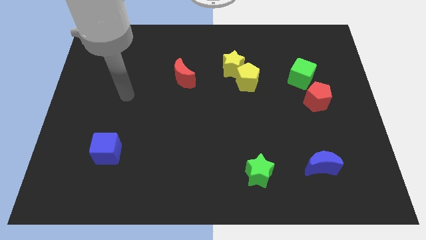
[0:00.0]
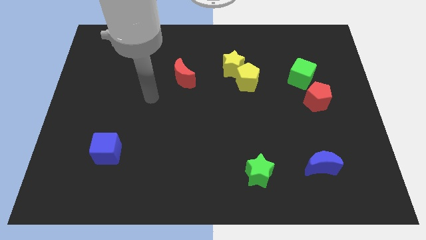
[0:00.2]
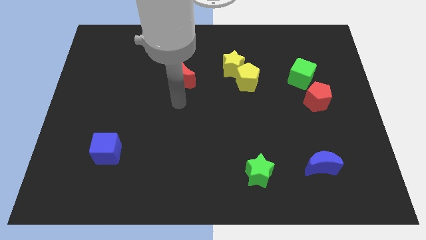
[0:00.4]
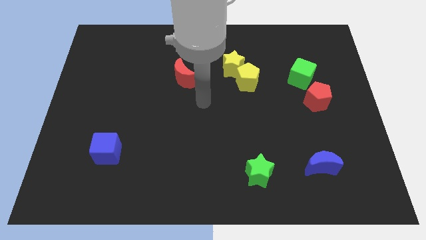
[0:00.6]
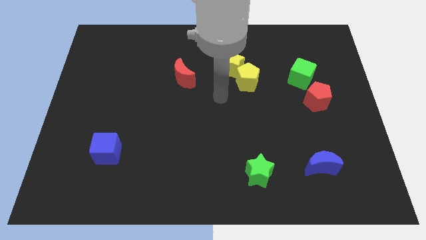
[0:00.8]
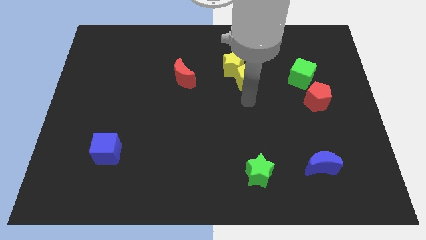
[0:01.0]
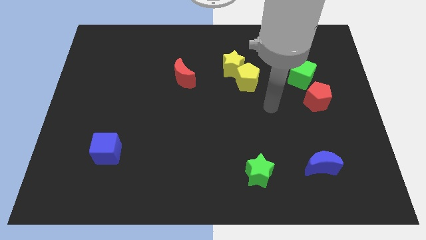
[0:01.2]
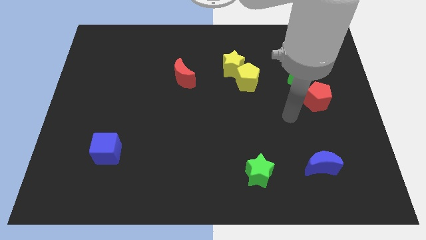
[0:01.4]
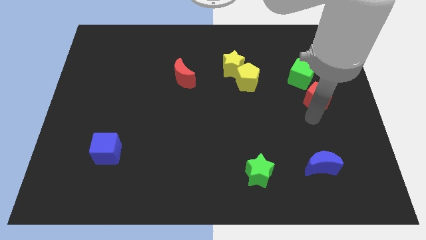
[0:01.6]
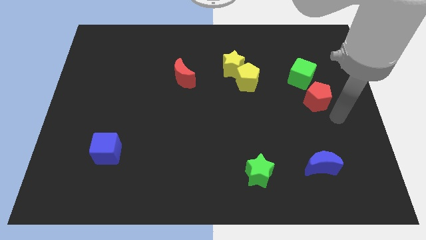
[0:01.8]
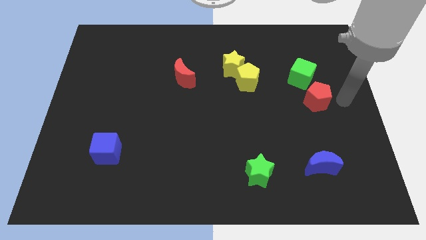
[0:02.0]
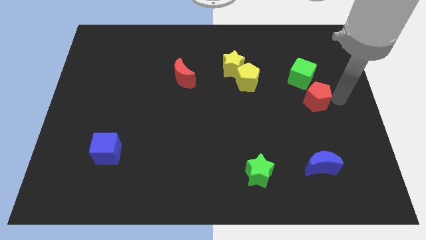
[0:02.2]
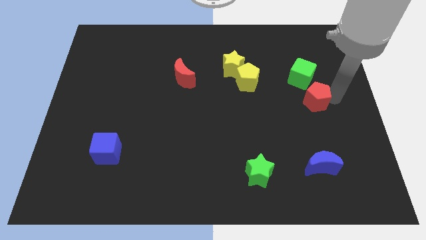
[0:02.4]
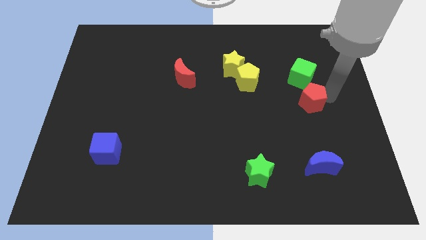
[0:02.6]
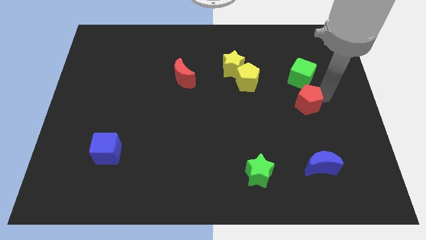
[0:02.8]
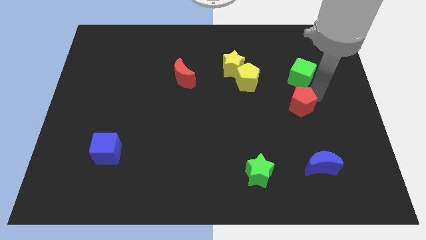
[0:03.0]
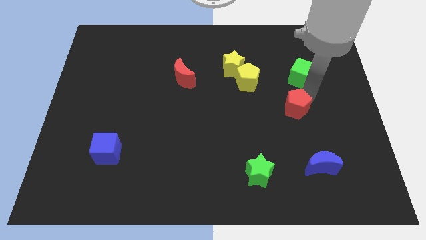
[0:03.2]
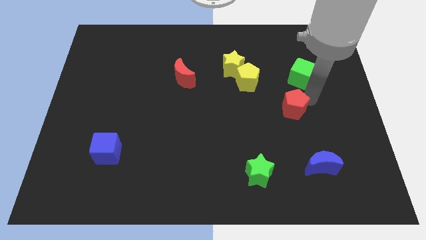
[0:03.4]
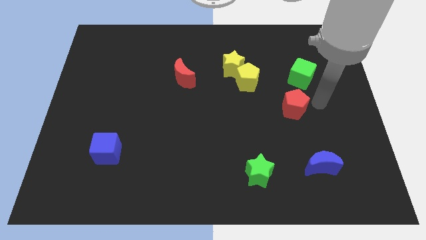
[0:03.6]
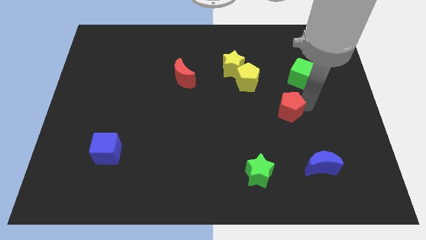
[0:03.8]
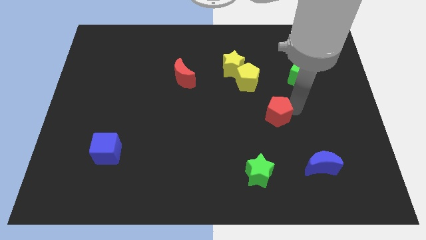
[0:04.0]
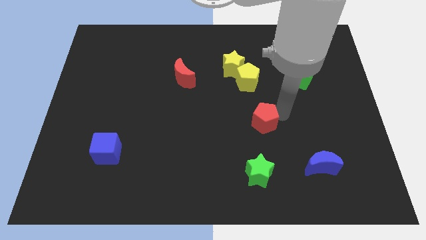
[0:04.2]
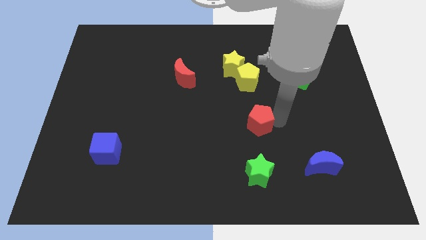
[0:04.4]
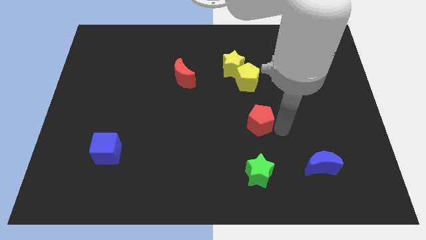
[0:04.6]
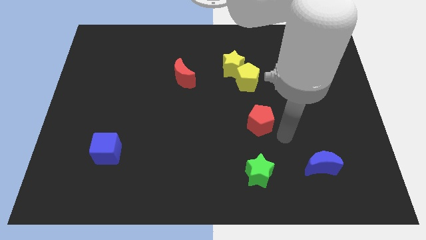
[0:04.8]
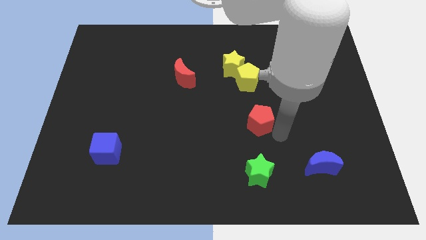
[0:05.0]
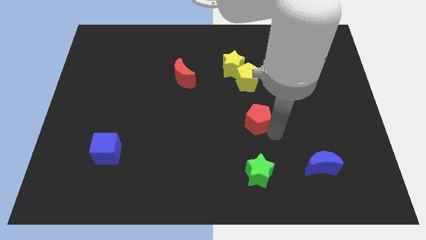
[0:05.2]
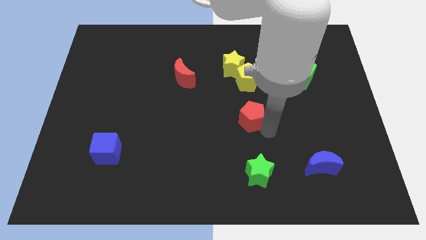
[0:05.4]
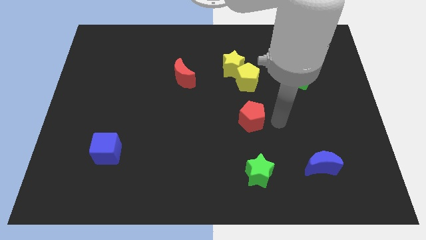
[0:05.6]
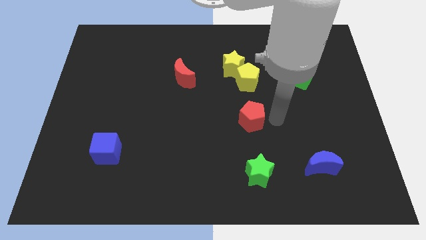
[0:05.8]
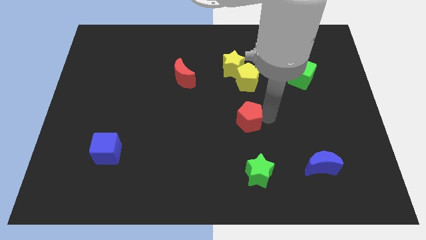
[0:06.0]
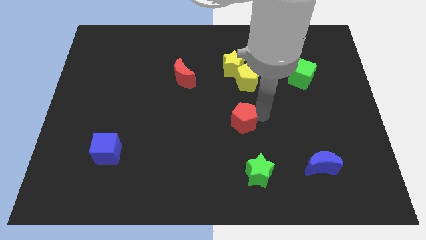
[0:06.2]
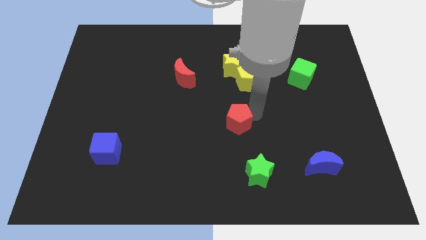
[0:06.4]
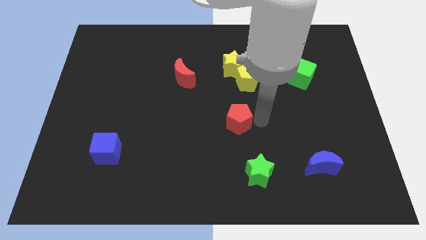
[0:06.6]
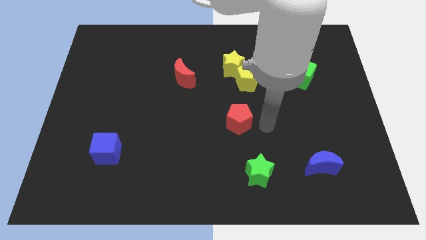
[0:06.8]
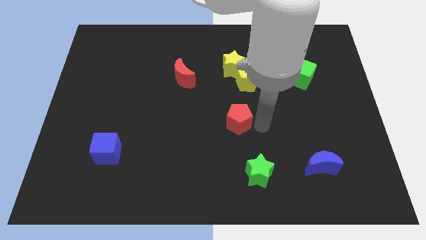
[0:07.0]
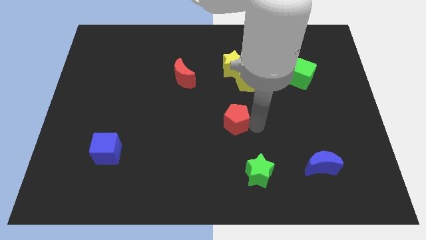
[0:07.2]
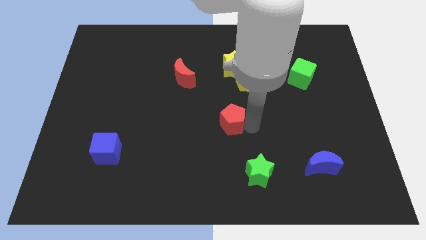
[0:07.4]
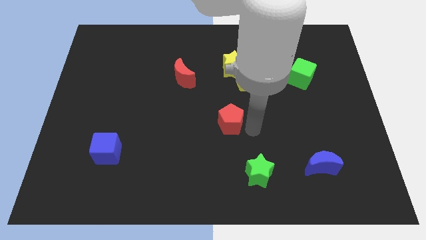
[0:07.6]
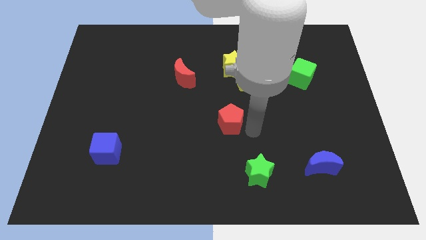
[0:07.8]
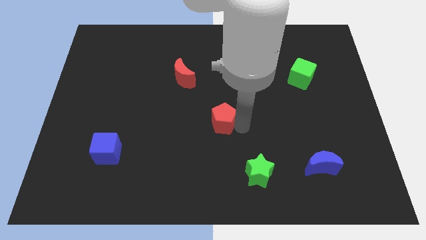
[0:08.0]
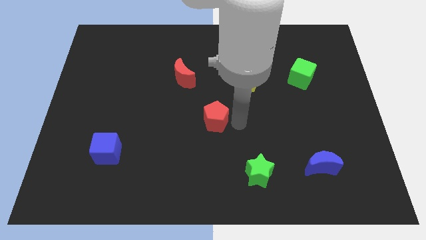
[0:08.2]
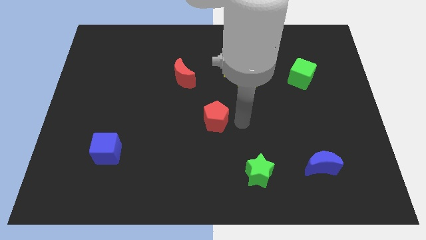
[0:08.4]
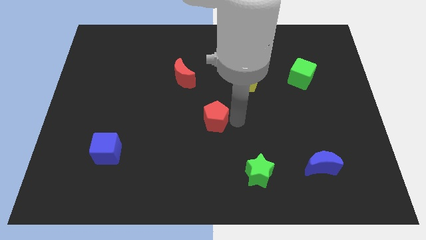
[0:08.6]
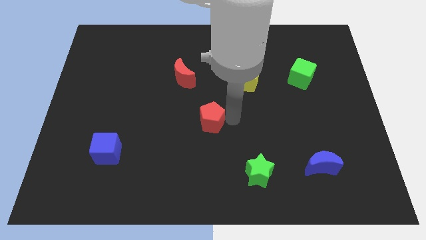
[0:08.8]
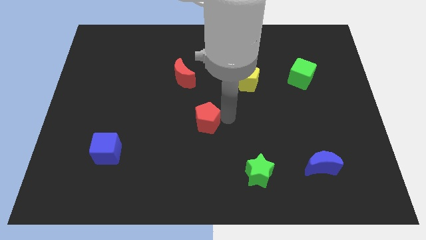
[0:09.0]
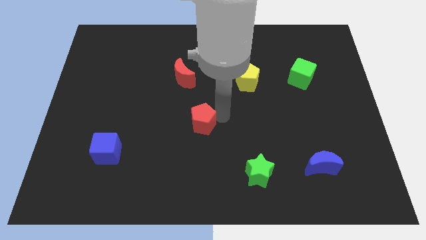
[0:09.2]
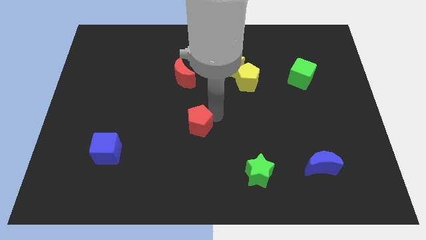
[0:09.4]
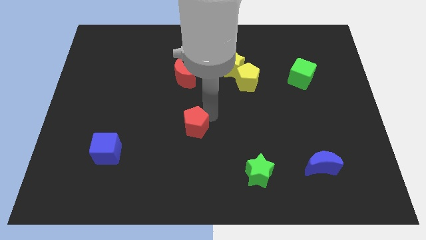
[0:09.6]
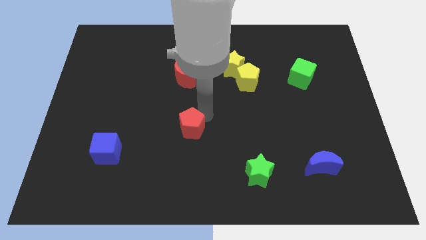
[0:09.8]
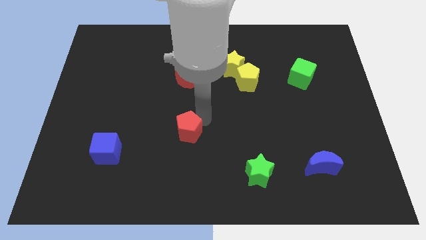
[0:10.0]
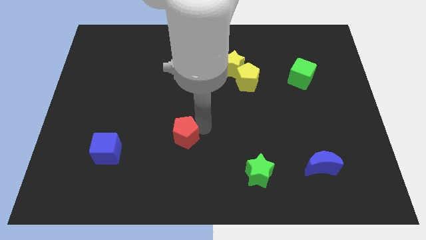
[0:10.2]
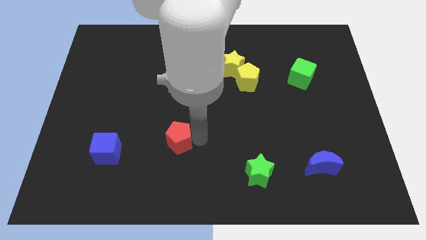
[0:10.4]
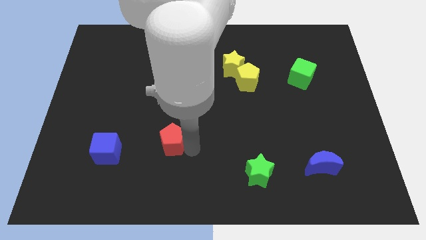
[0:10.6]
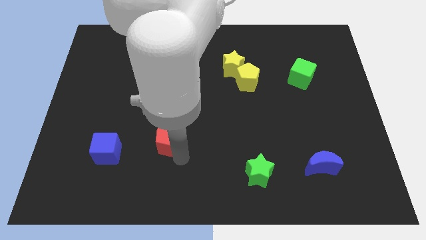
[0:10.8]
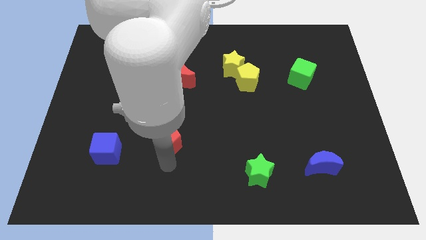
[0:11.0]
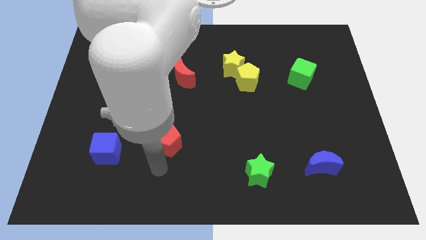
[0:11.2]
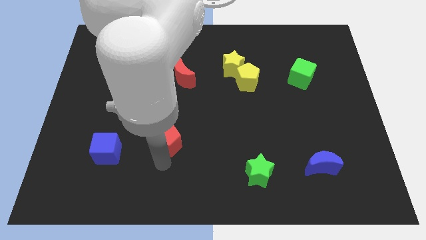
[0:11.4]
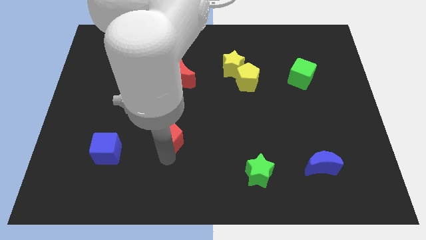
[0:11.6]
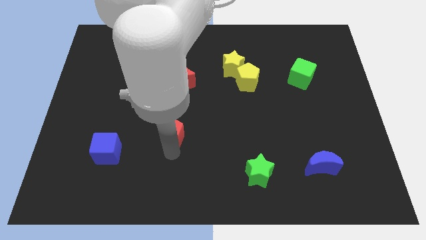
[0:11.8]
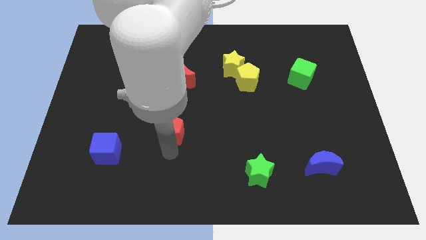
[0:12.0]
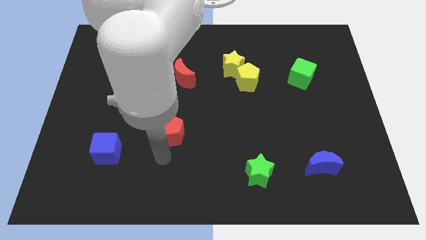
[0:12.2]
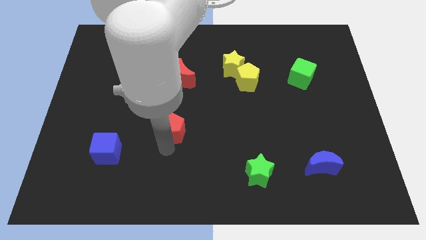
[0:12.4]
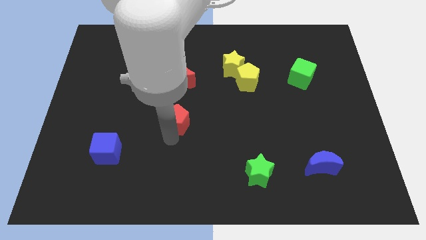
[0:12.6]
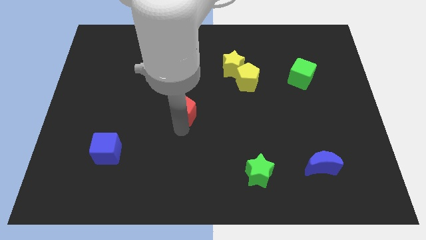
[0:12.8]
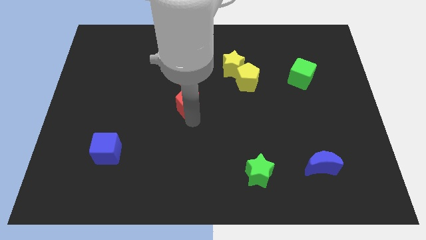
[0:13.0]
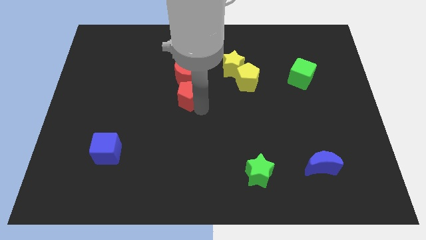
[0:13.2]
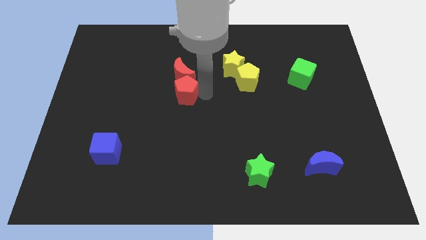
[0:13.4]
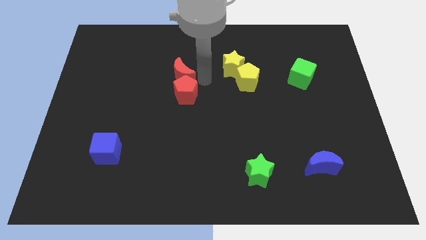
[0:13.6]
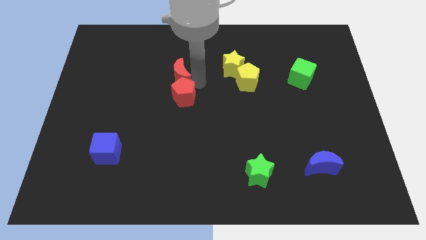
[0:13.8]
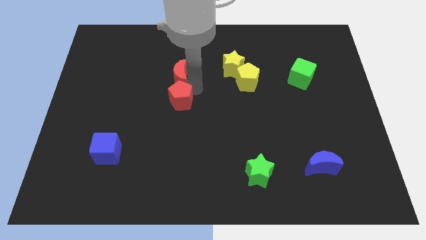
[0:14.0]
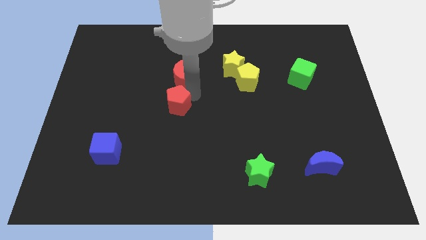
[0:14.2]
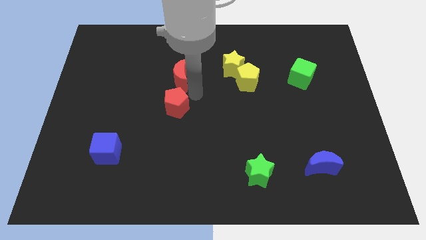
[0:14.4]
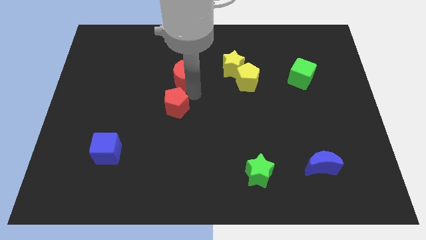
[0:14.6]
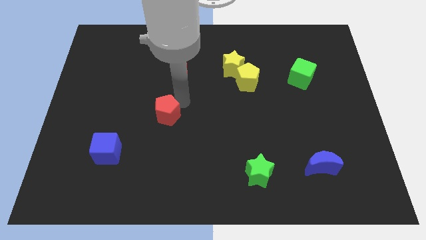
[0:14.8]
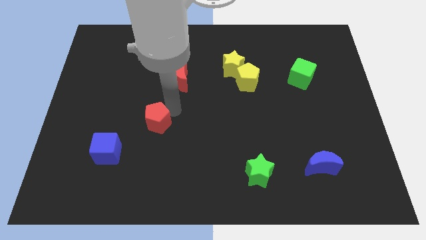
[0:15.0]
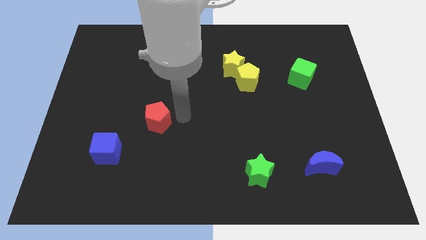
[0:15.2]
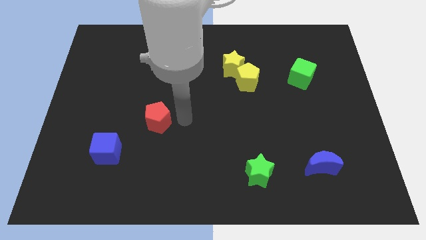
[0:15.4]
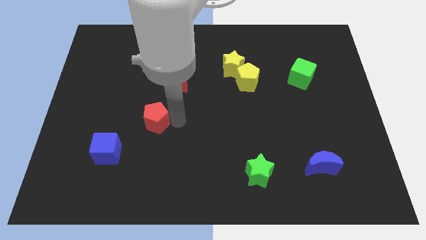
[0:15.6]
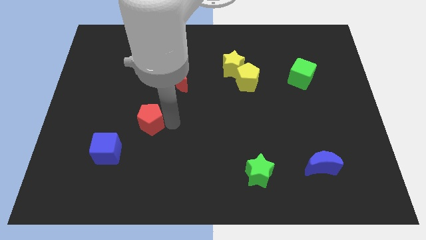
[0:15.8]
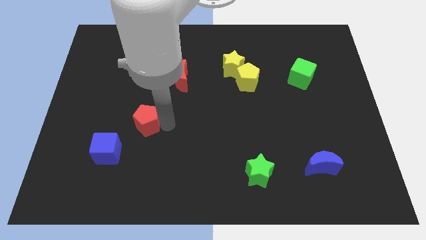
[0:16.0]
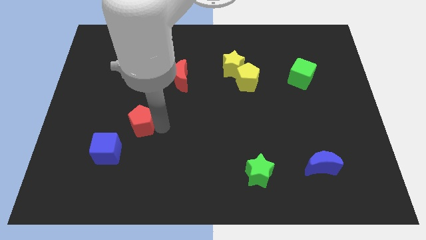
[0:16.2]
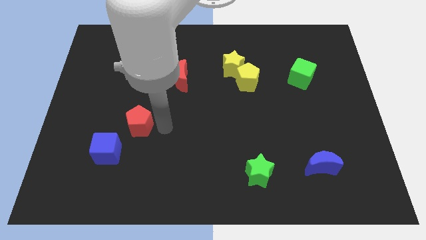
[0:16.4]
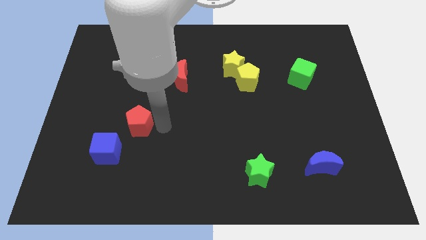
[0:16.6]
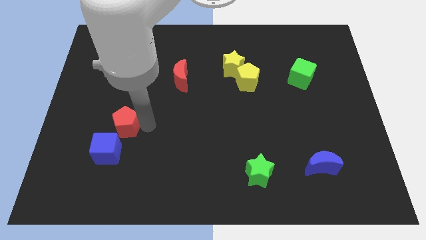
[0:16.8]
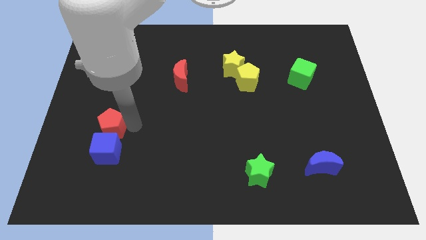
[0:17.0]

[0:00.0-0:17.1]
slide the red pentagon to the top left side of the blue cube
